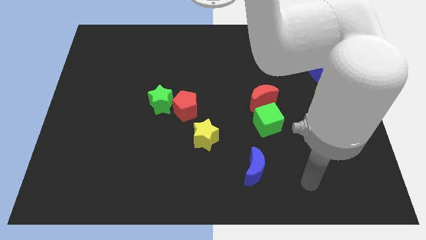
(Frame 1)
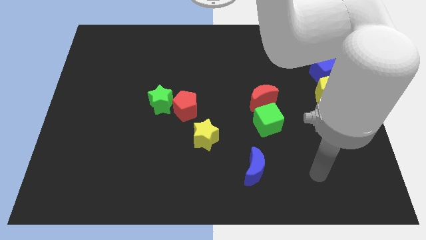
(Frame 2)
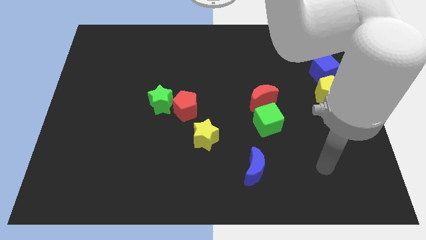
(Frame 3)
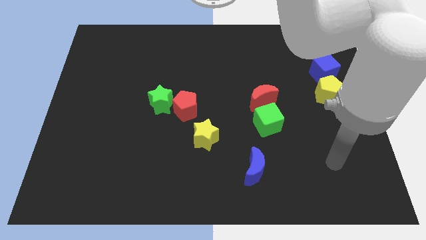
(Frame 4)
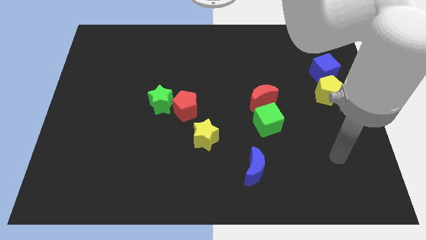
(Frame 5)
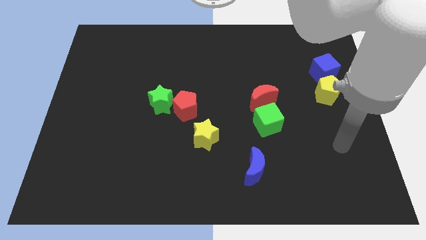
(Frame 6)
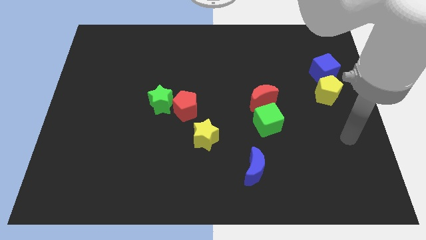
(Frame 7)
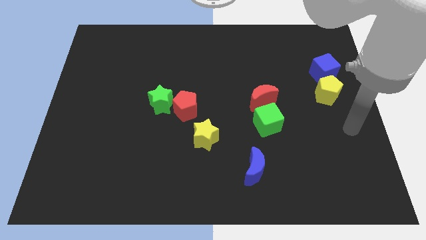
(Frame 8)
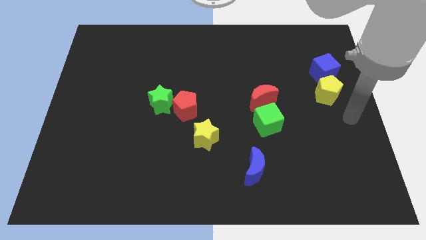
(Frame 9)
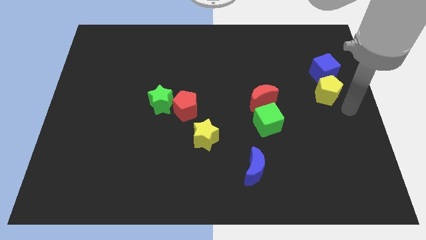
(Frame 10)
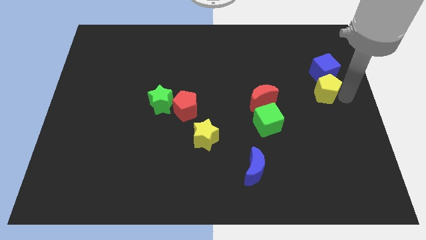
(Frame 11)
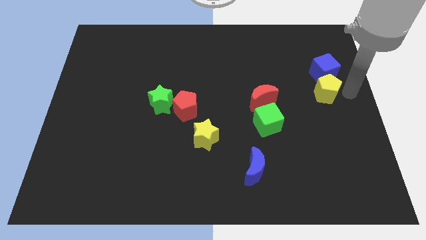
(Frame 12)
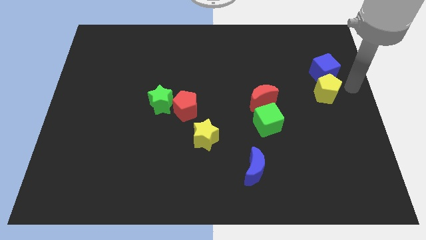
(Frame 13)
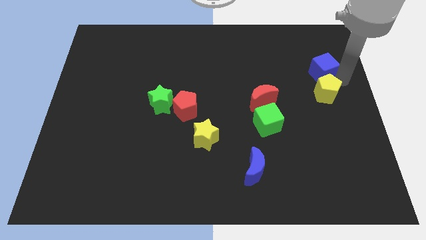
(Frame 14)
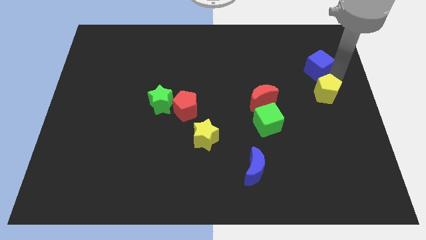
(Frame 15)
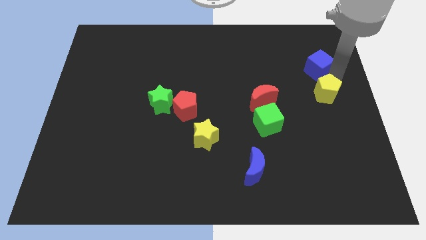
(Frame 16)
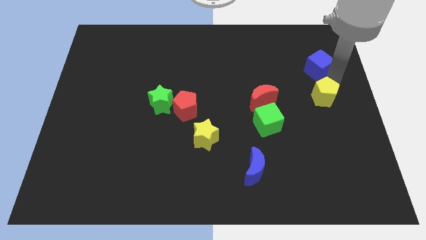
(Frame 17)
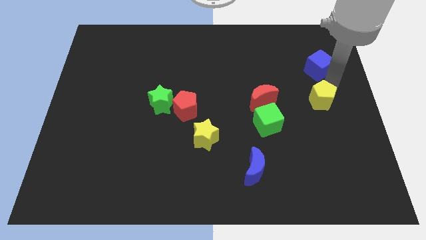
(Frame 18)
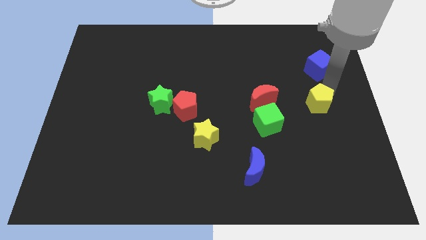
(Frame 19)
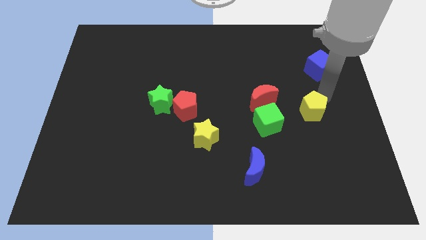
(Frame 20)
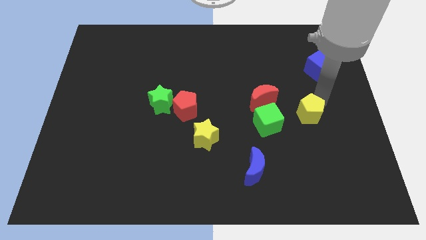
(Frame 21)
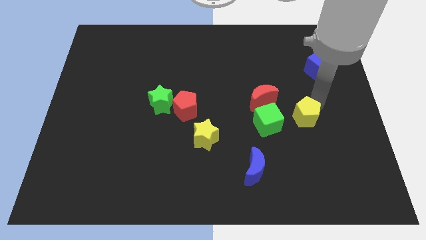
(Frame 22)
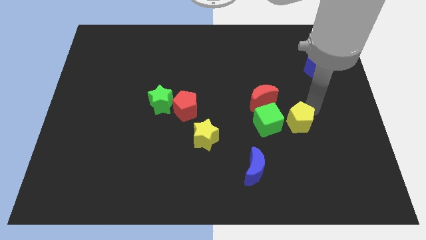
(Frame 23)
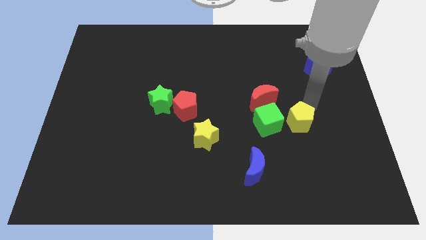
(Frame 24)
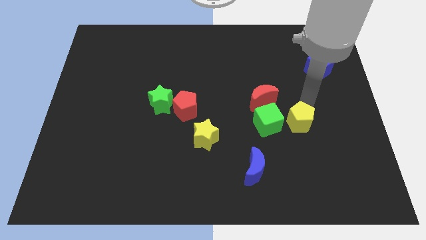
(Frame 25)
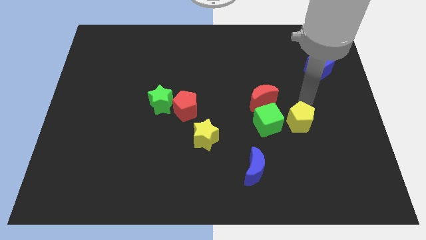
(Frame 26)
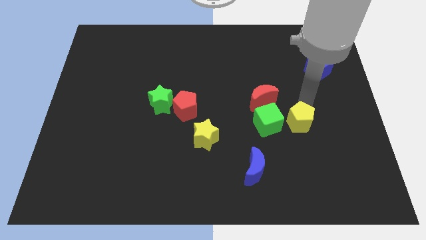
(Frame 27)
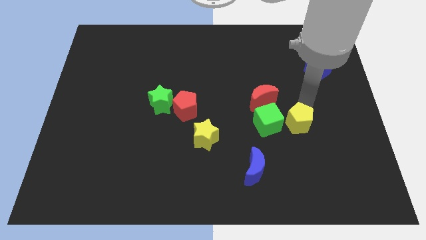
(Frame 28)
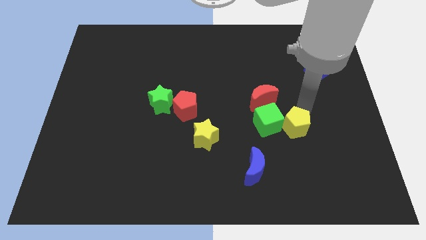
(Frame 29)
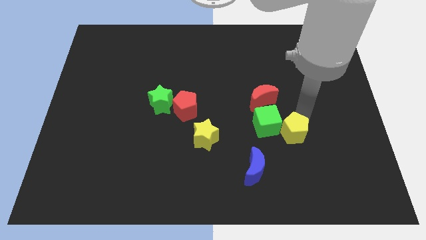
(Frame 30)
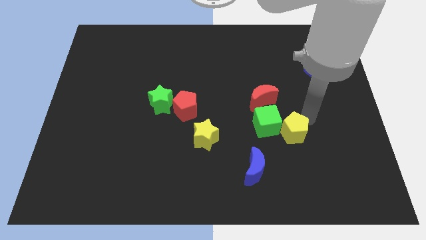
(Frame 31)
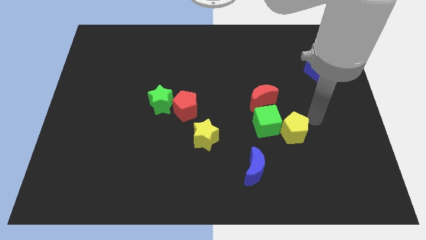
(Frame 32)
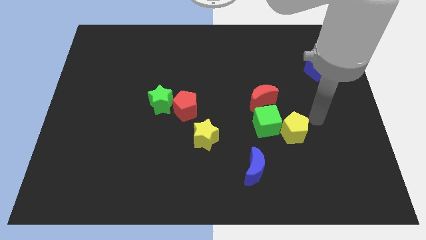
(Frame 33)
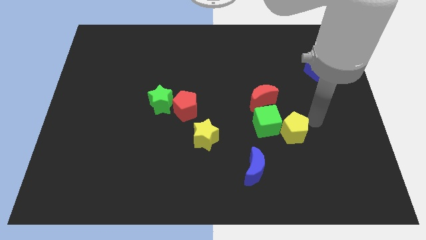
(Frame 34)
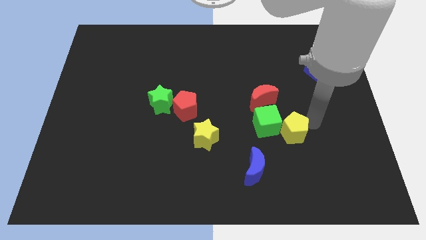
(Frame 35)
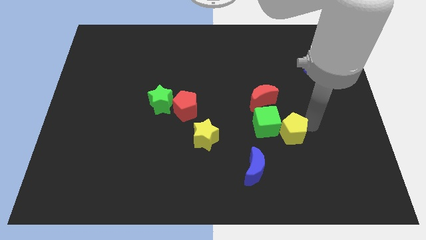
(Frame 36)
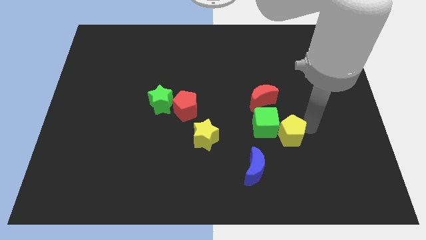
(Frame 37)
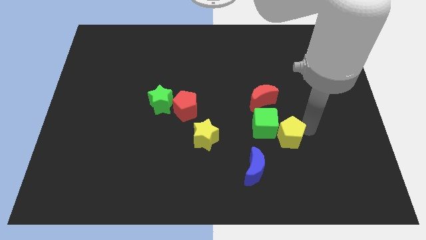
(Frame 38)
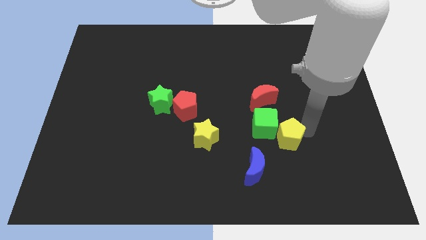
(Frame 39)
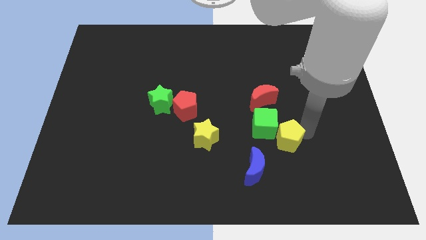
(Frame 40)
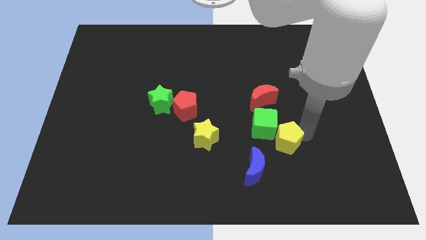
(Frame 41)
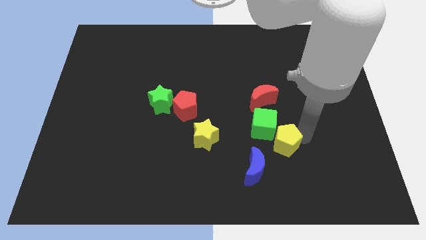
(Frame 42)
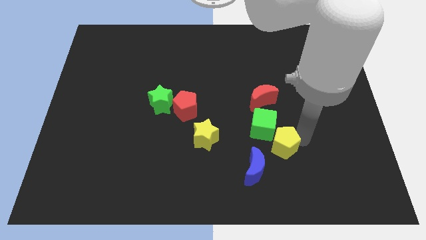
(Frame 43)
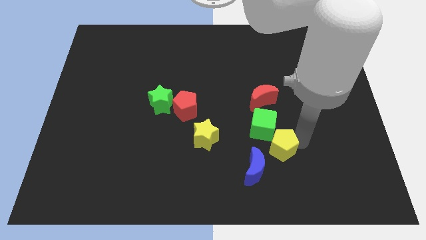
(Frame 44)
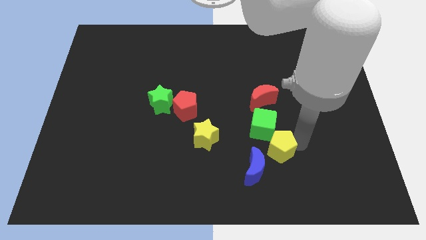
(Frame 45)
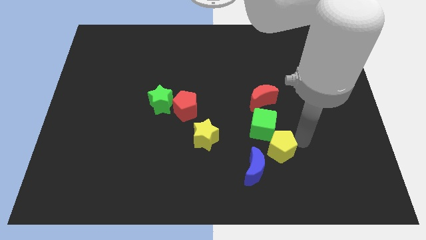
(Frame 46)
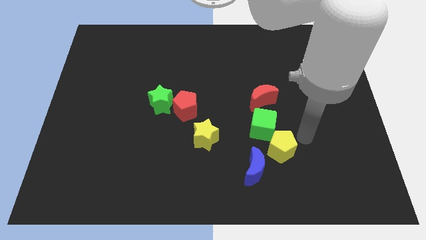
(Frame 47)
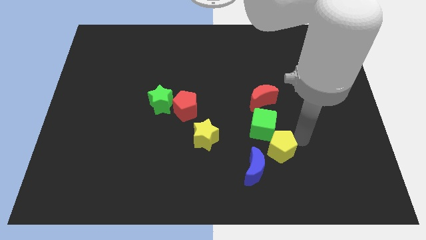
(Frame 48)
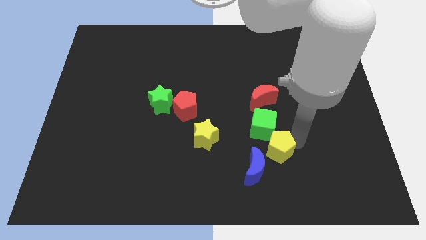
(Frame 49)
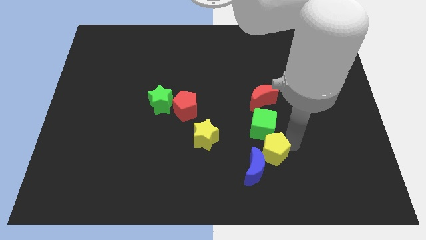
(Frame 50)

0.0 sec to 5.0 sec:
put the yellow pentagon to the blue moon

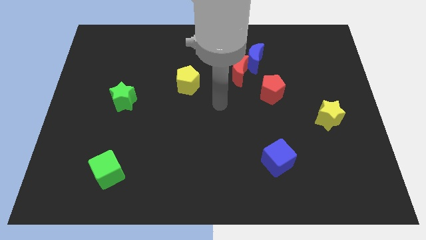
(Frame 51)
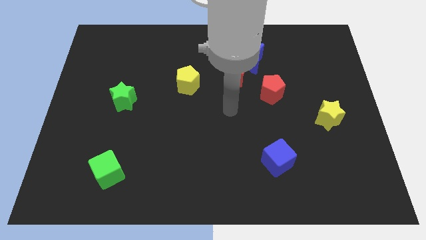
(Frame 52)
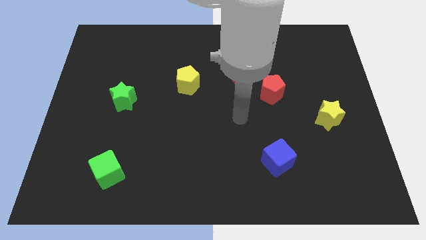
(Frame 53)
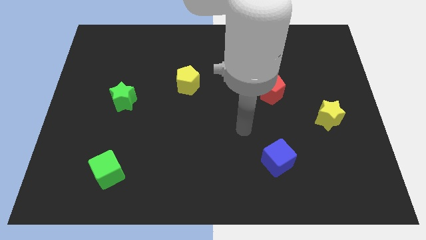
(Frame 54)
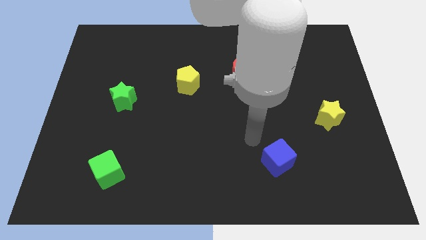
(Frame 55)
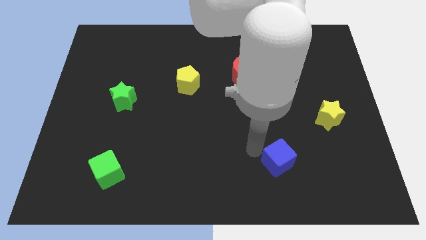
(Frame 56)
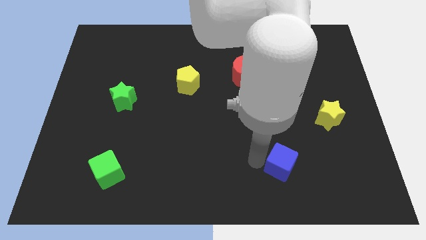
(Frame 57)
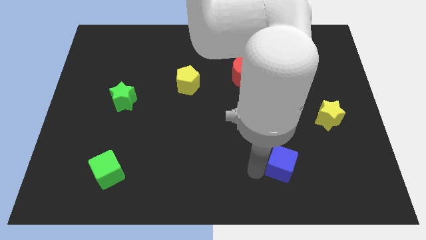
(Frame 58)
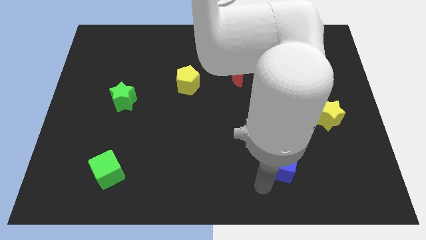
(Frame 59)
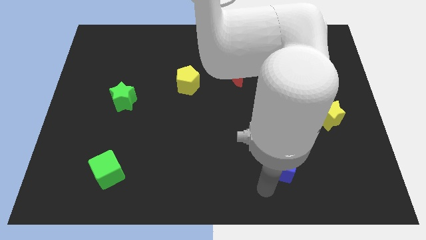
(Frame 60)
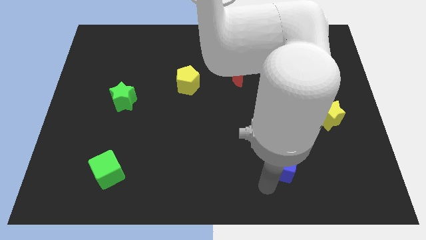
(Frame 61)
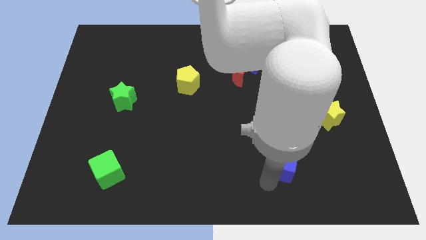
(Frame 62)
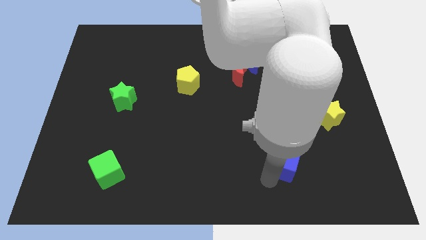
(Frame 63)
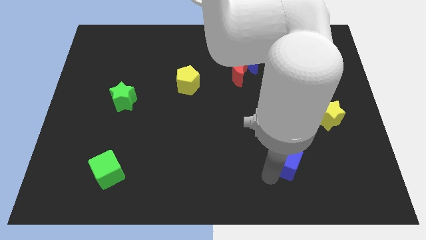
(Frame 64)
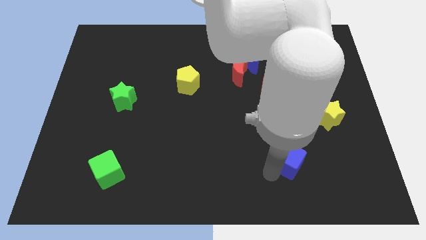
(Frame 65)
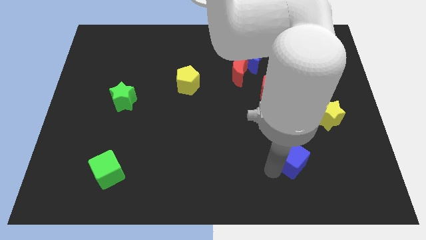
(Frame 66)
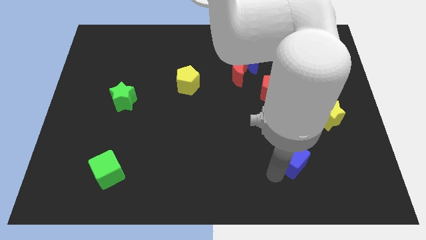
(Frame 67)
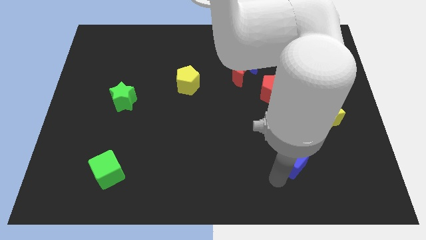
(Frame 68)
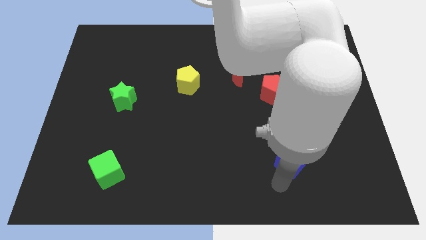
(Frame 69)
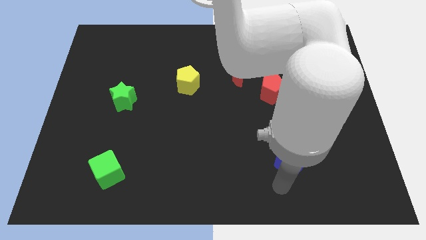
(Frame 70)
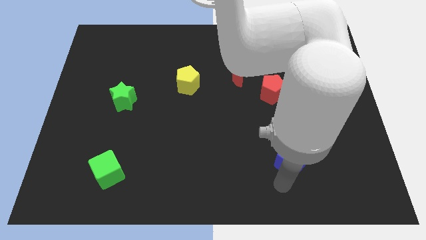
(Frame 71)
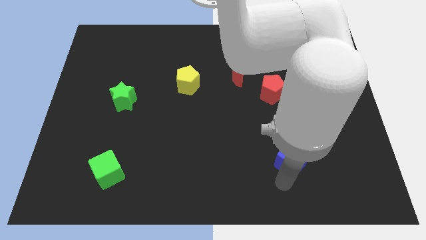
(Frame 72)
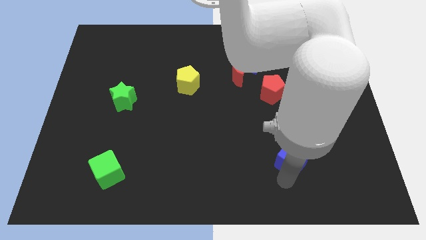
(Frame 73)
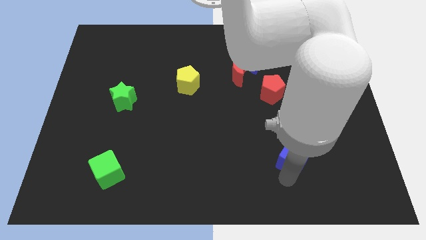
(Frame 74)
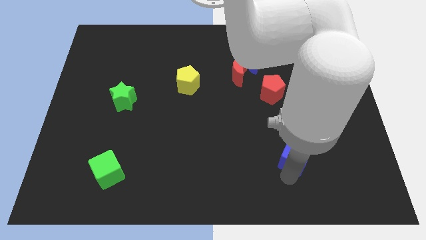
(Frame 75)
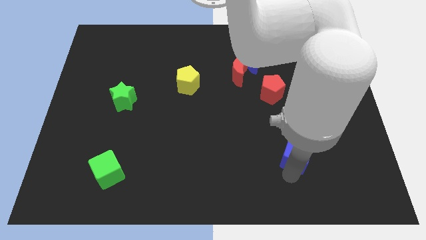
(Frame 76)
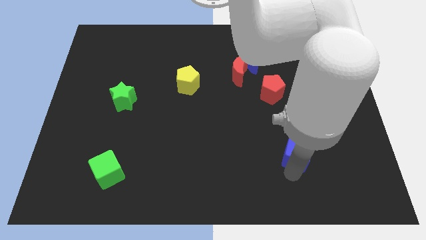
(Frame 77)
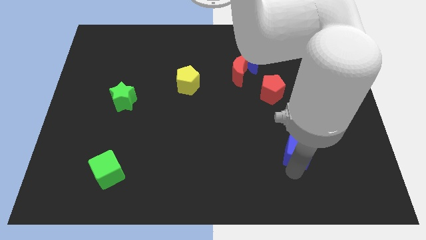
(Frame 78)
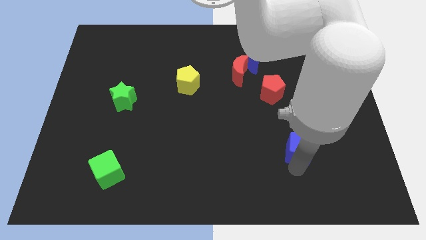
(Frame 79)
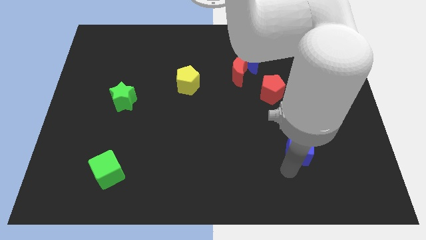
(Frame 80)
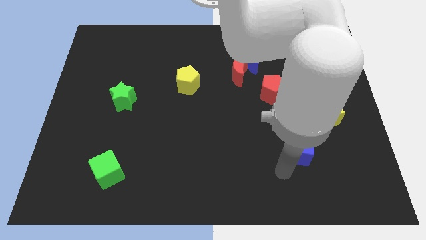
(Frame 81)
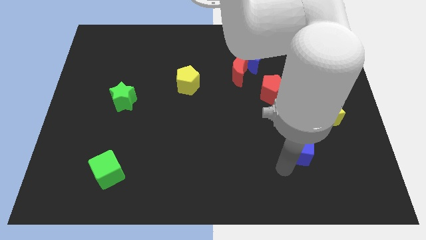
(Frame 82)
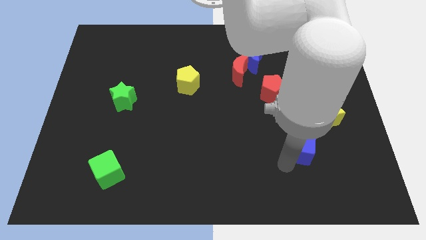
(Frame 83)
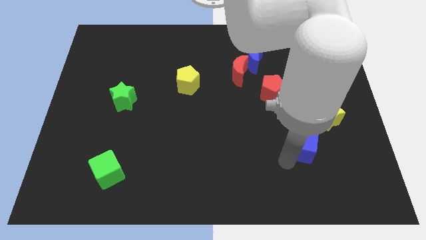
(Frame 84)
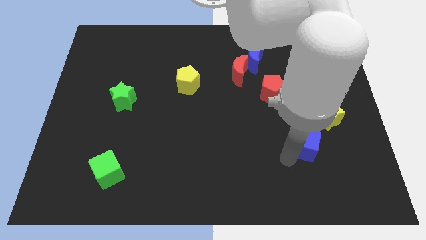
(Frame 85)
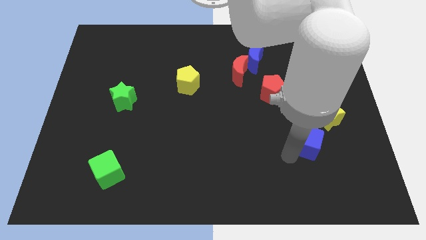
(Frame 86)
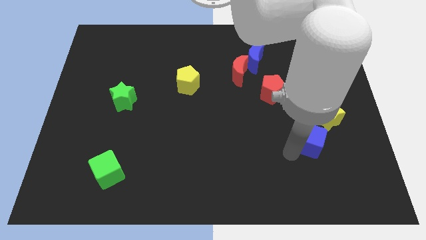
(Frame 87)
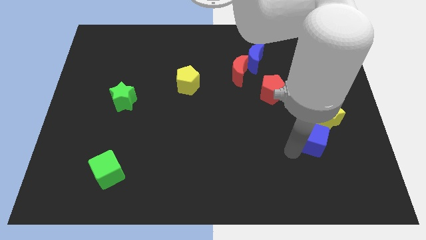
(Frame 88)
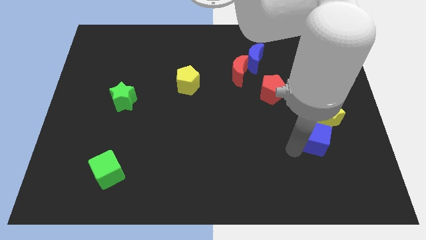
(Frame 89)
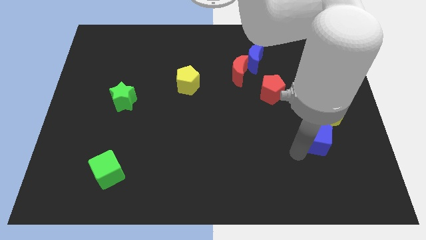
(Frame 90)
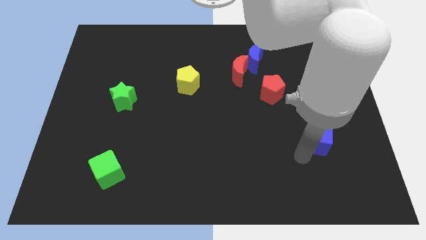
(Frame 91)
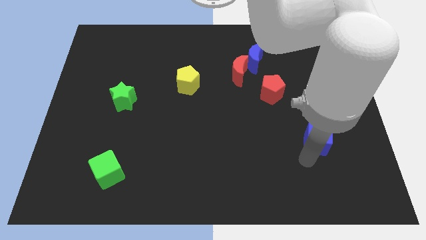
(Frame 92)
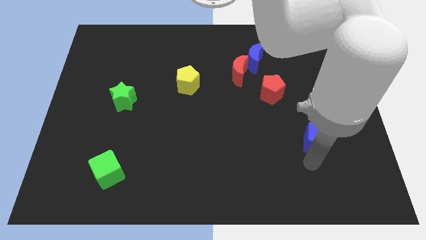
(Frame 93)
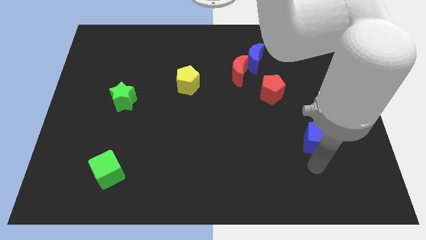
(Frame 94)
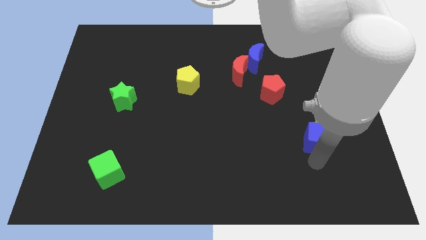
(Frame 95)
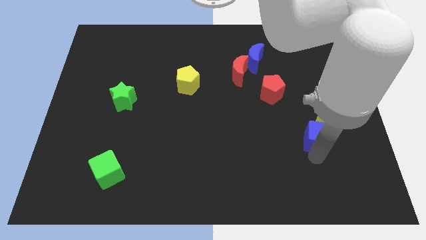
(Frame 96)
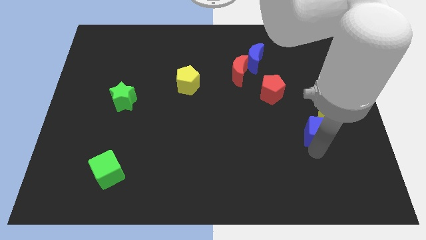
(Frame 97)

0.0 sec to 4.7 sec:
put the blue cube next to the yellow star
